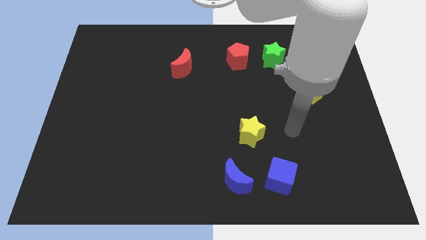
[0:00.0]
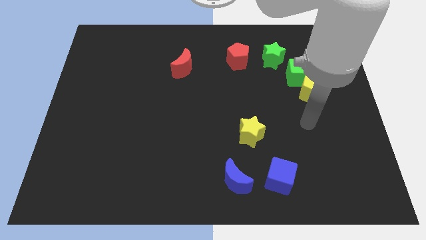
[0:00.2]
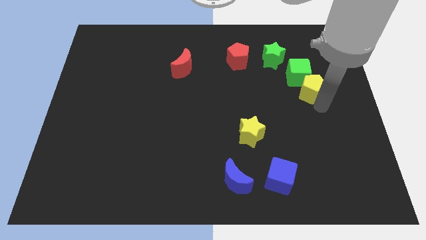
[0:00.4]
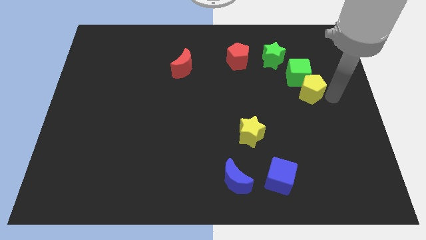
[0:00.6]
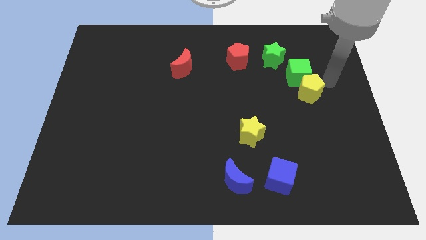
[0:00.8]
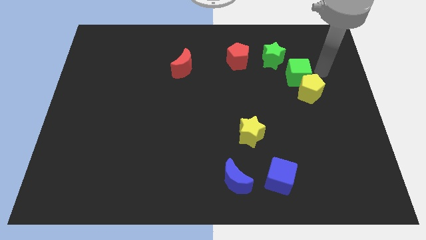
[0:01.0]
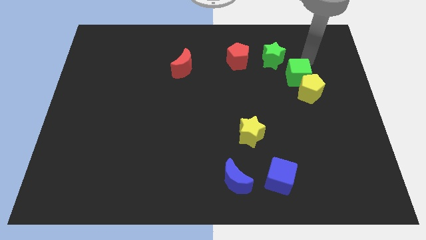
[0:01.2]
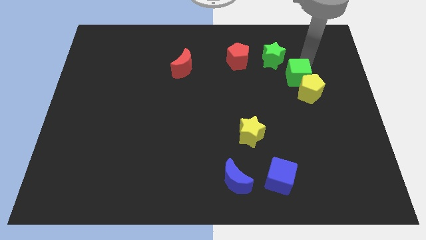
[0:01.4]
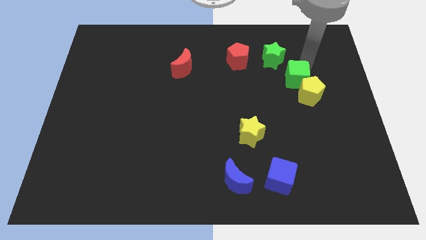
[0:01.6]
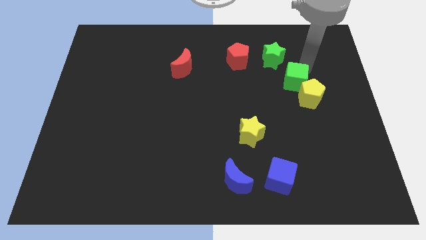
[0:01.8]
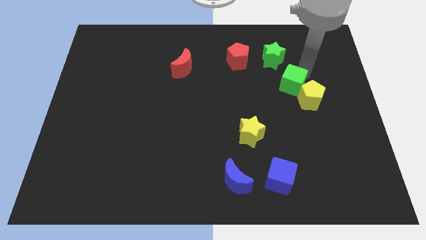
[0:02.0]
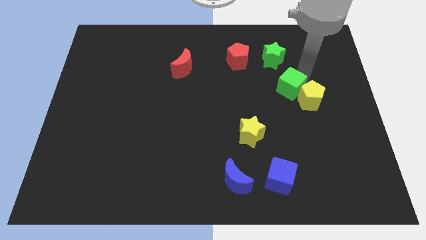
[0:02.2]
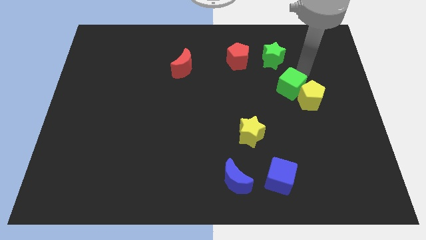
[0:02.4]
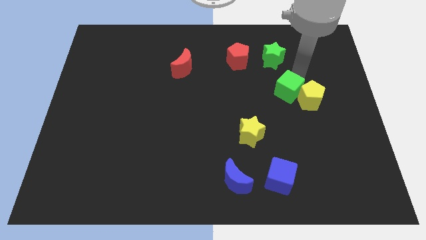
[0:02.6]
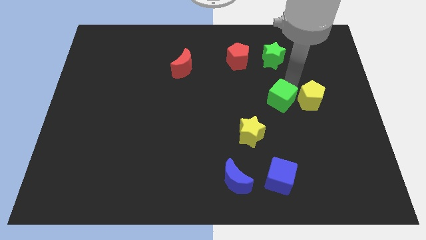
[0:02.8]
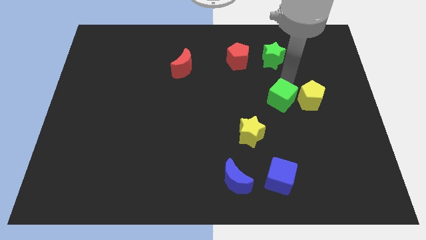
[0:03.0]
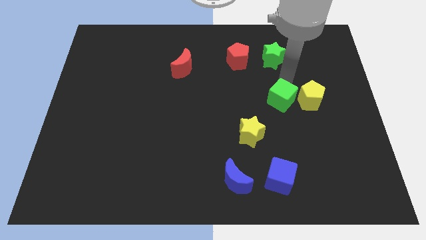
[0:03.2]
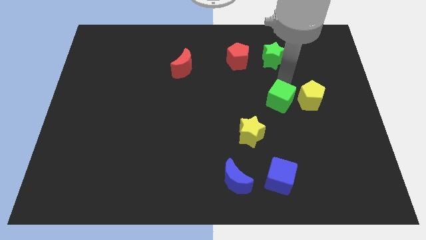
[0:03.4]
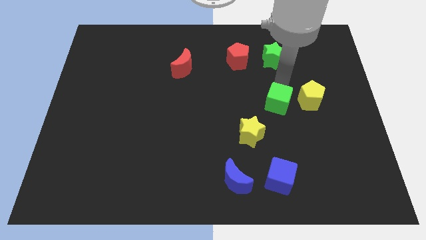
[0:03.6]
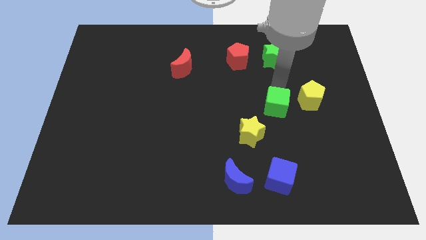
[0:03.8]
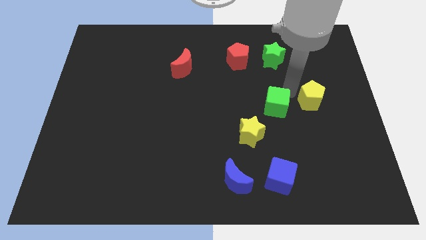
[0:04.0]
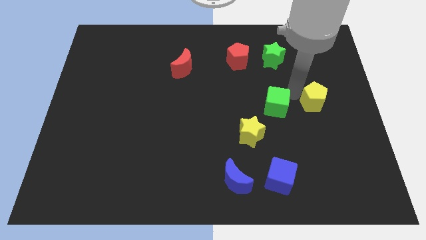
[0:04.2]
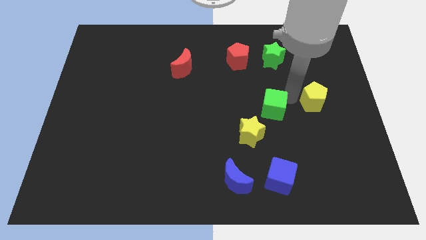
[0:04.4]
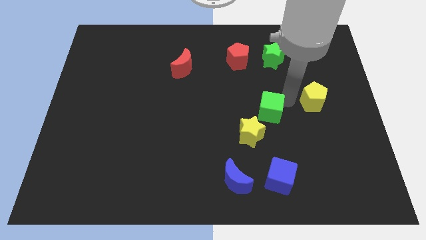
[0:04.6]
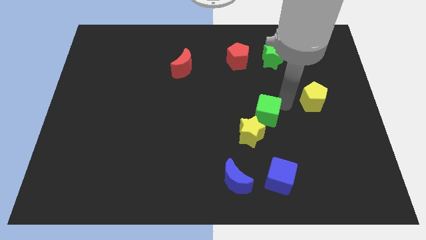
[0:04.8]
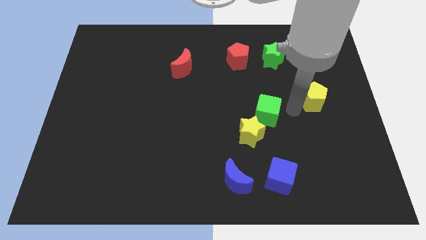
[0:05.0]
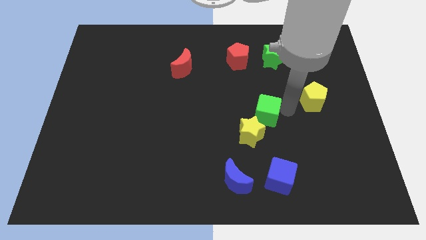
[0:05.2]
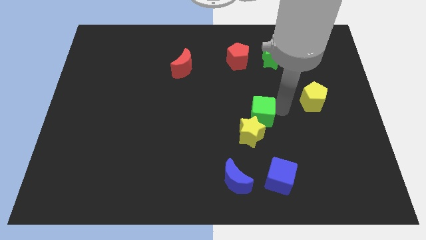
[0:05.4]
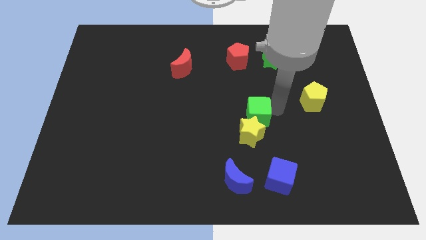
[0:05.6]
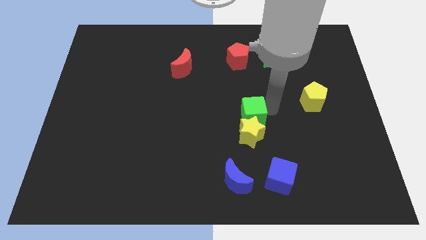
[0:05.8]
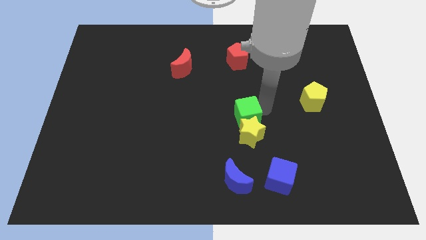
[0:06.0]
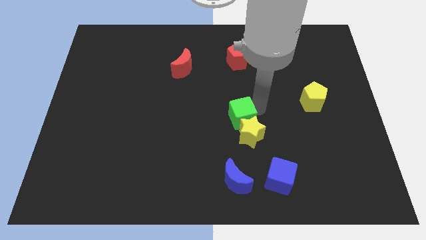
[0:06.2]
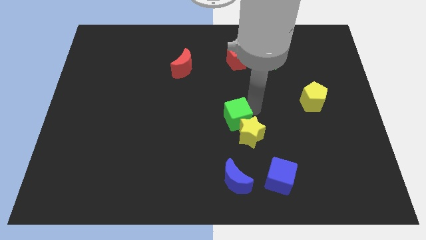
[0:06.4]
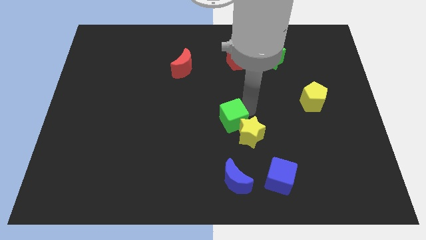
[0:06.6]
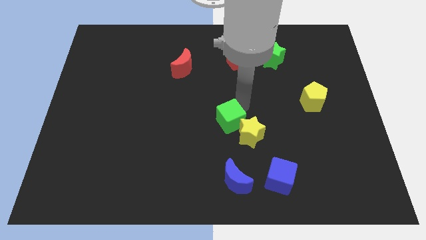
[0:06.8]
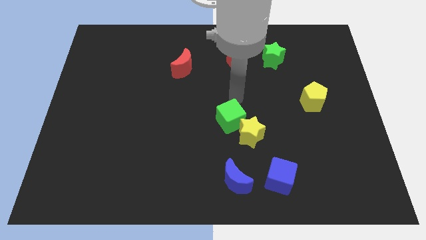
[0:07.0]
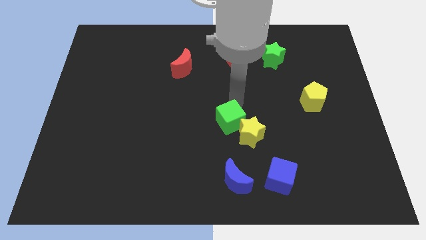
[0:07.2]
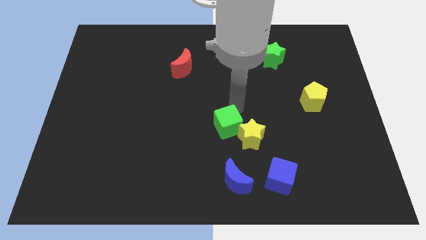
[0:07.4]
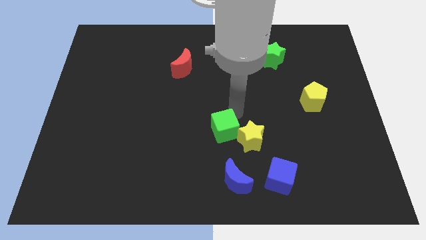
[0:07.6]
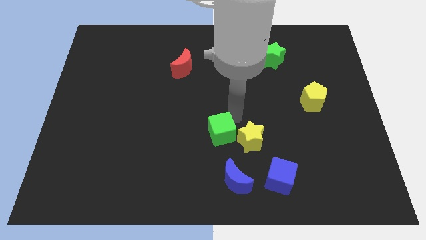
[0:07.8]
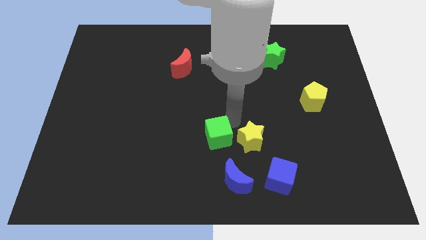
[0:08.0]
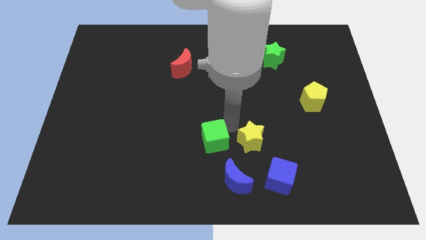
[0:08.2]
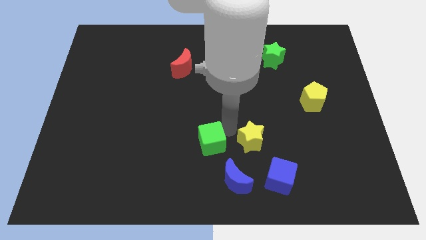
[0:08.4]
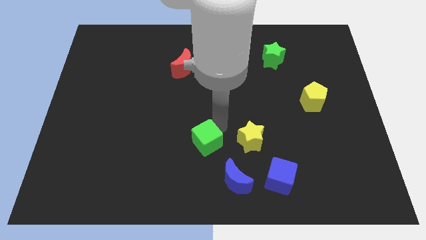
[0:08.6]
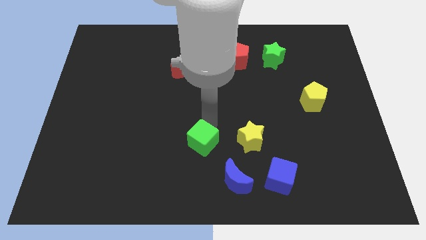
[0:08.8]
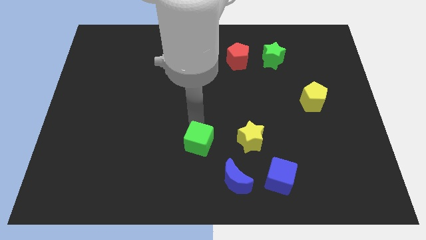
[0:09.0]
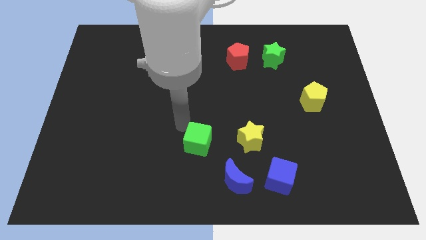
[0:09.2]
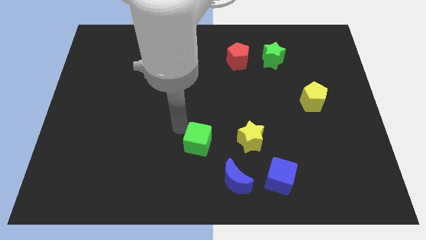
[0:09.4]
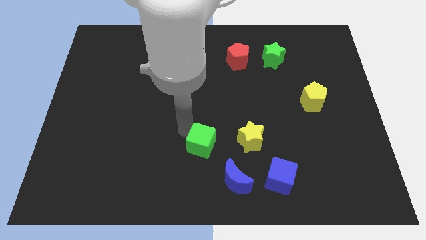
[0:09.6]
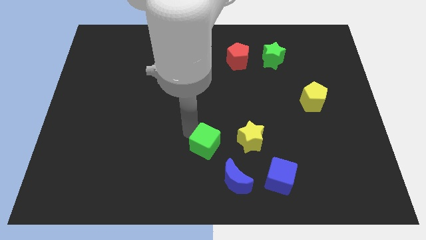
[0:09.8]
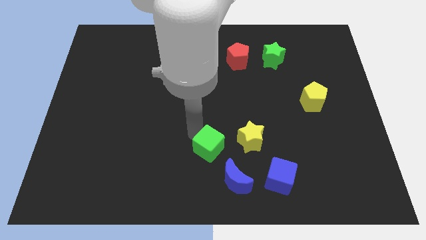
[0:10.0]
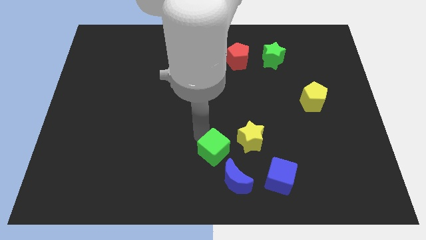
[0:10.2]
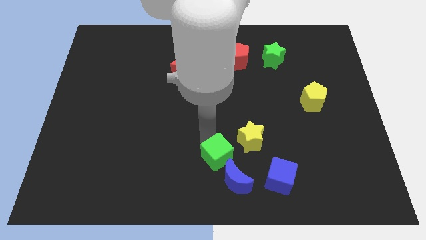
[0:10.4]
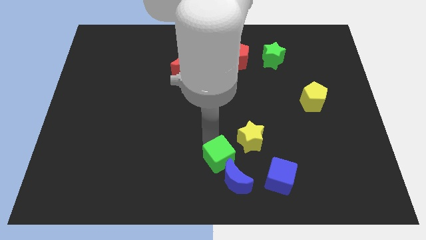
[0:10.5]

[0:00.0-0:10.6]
push the green cube just left of the blue cube

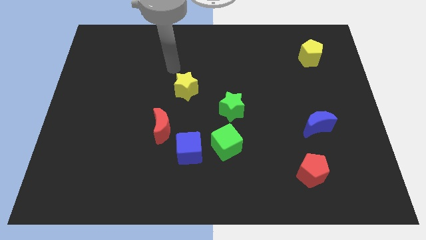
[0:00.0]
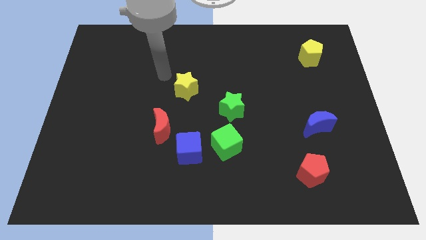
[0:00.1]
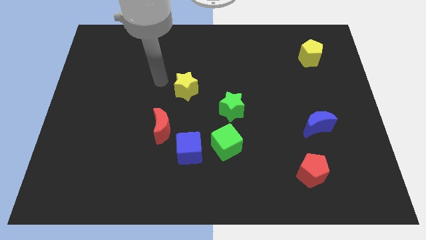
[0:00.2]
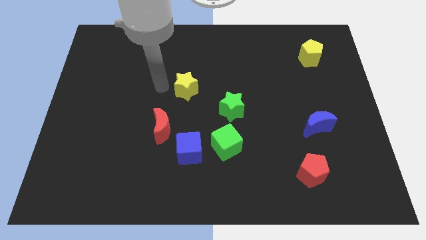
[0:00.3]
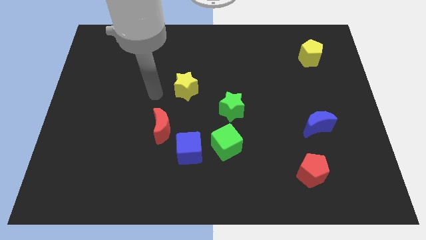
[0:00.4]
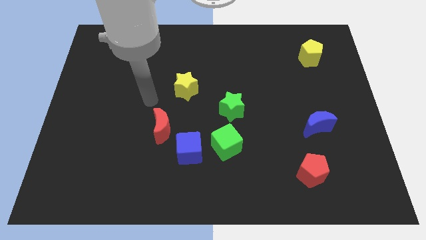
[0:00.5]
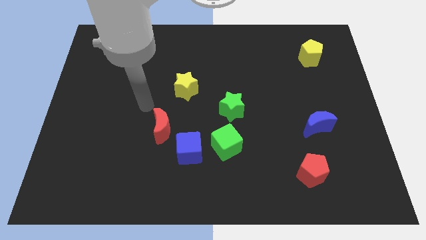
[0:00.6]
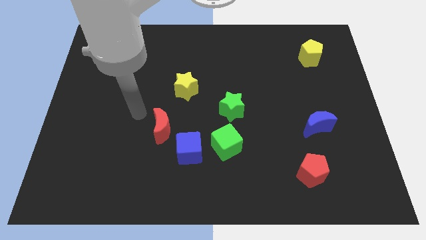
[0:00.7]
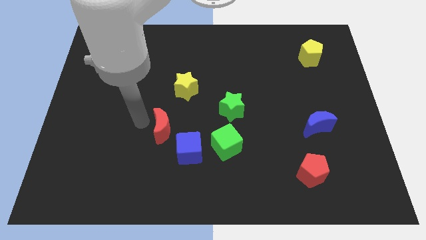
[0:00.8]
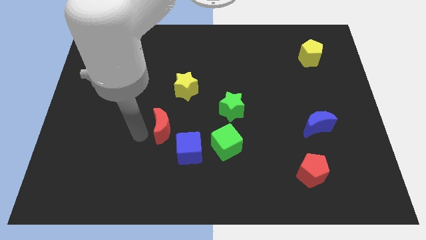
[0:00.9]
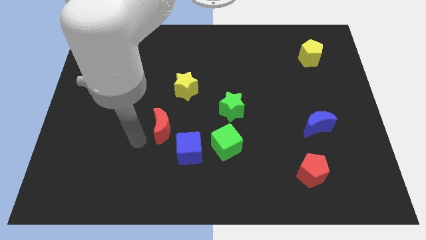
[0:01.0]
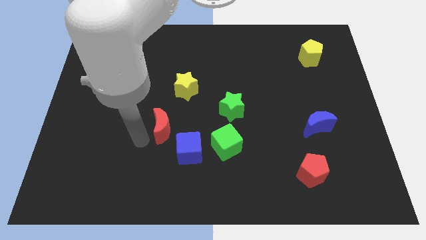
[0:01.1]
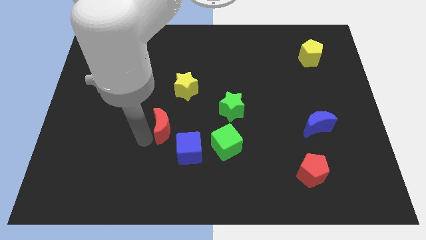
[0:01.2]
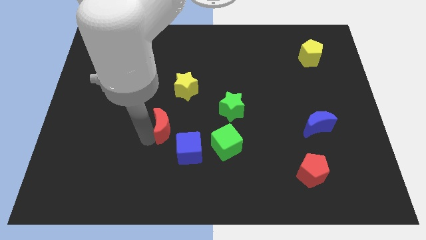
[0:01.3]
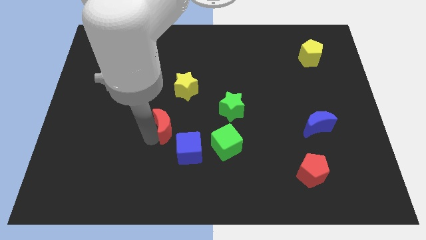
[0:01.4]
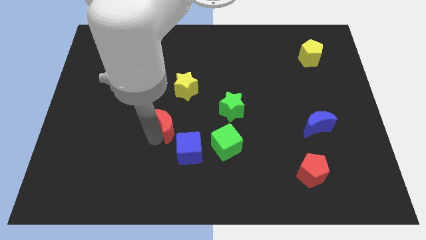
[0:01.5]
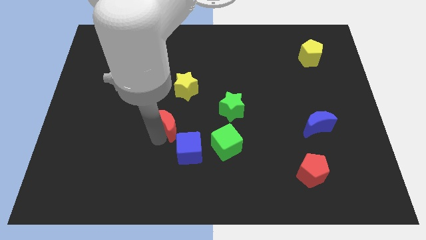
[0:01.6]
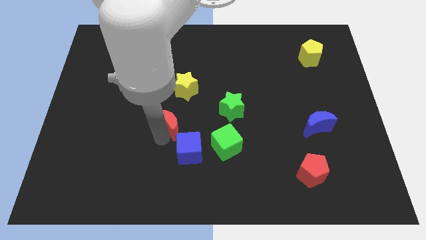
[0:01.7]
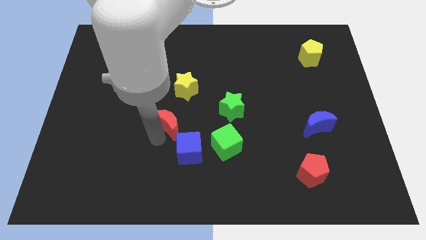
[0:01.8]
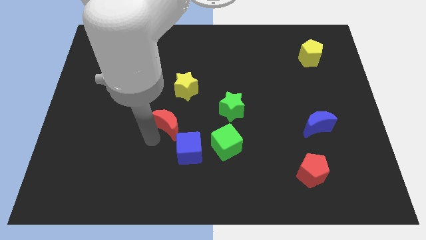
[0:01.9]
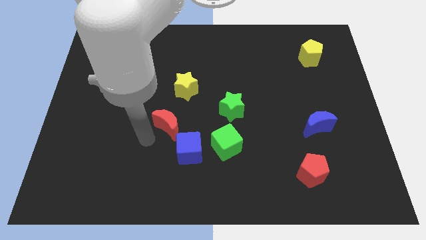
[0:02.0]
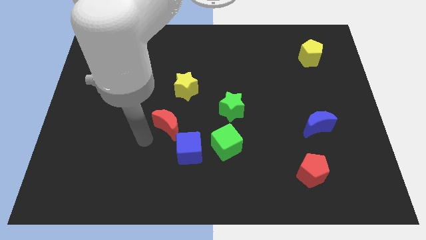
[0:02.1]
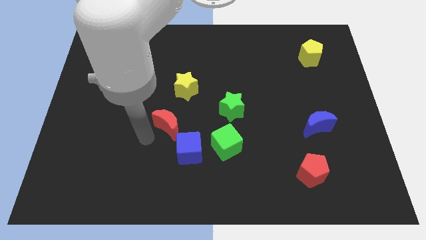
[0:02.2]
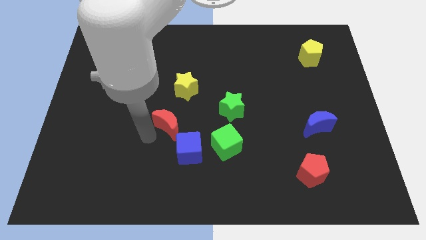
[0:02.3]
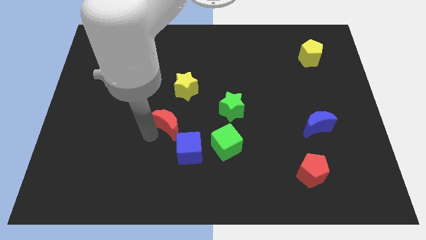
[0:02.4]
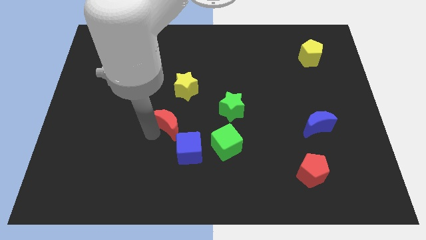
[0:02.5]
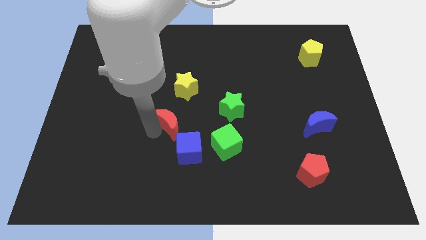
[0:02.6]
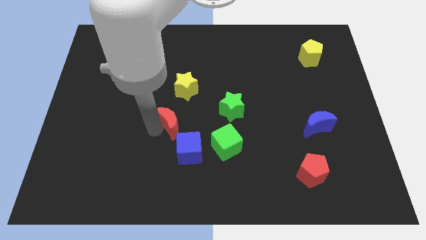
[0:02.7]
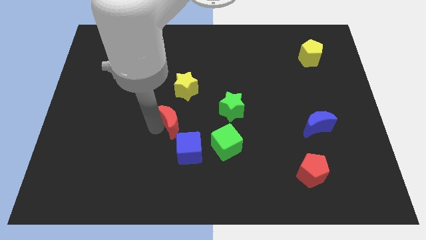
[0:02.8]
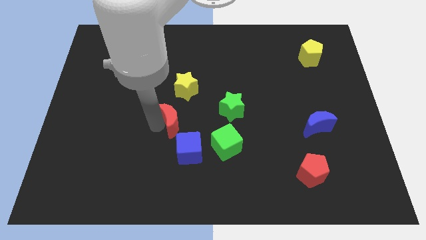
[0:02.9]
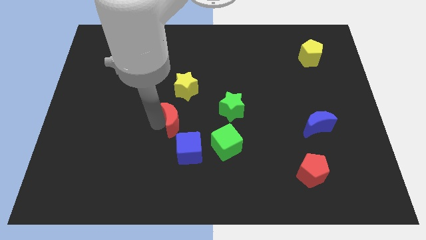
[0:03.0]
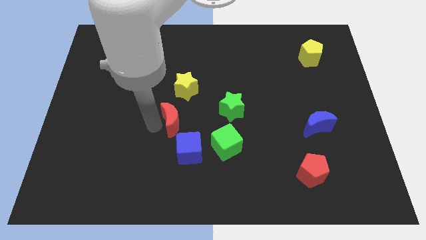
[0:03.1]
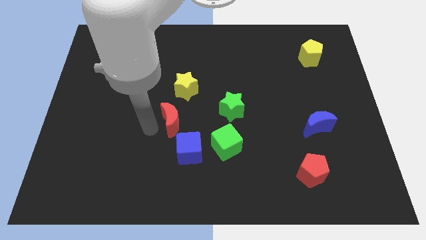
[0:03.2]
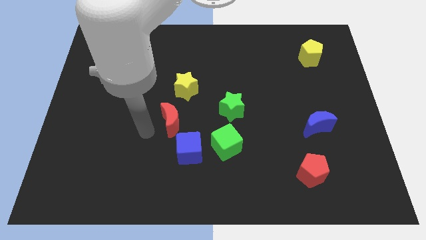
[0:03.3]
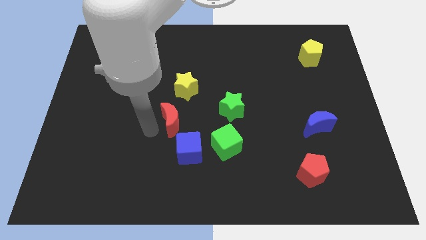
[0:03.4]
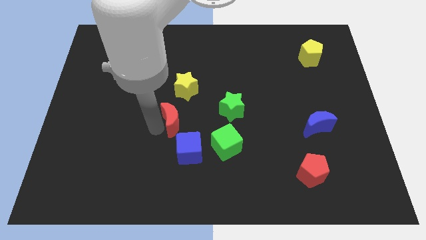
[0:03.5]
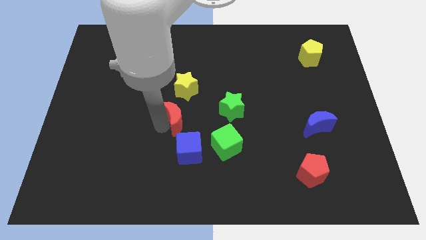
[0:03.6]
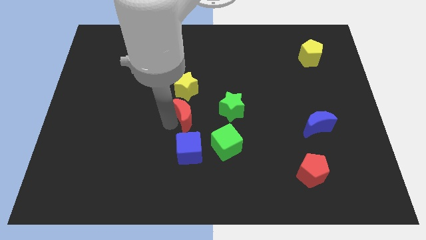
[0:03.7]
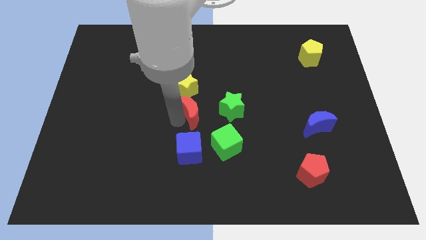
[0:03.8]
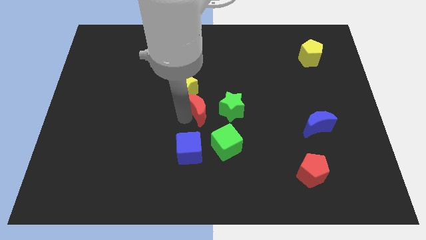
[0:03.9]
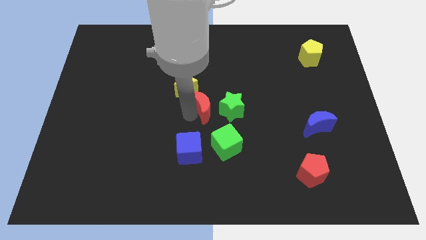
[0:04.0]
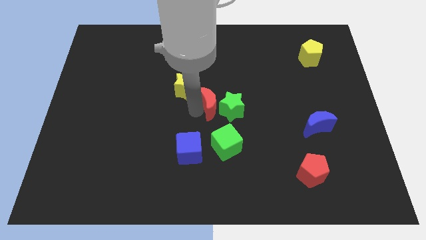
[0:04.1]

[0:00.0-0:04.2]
put the red moon above the green cube
